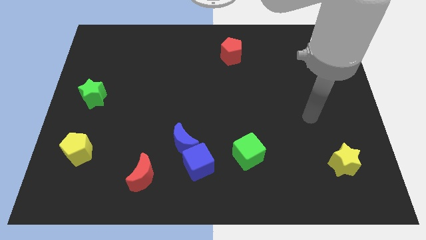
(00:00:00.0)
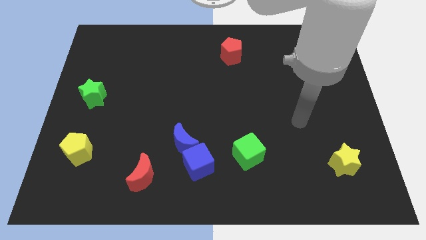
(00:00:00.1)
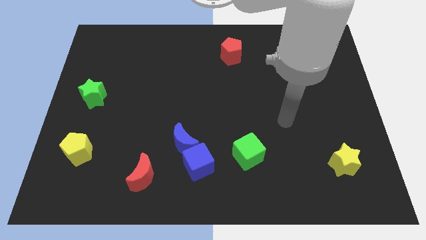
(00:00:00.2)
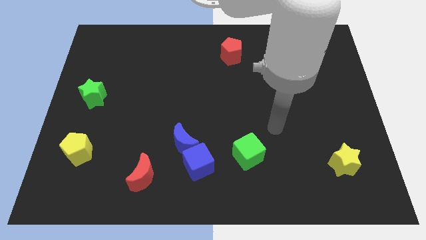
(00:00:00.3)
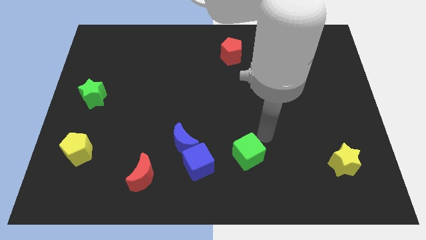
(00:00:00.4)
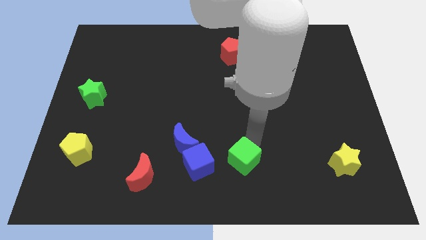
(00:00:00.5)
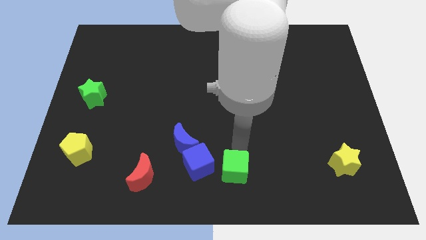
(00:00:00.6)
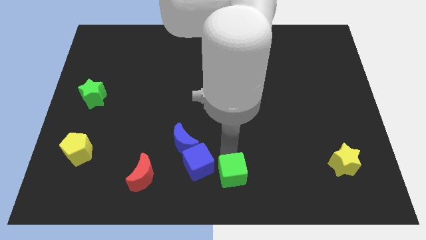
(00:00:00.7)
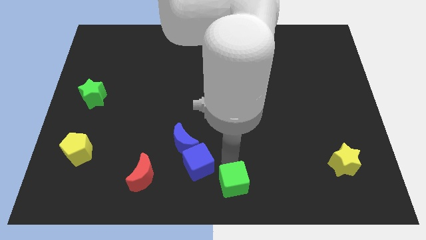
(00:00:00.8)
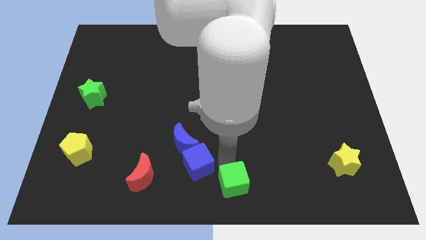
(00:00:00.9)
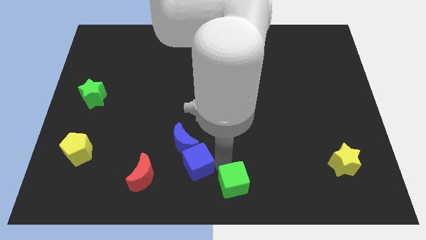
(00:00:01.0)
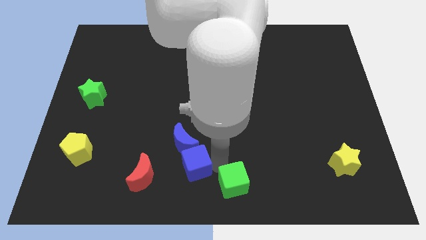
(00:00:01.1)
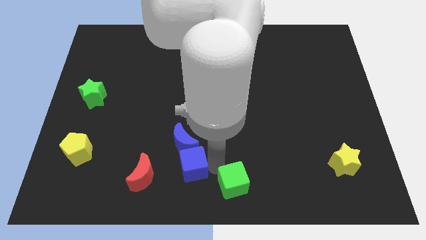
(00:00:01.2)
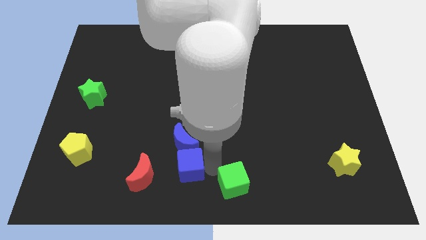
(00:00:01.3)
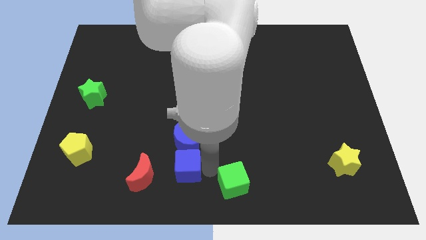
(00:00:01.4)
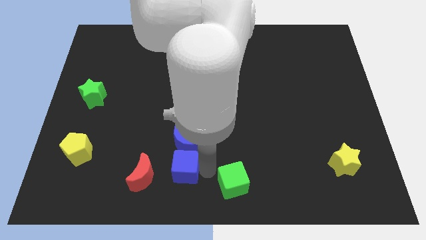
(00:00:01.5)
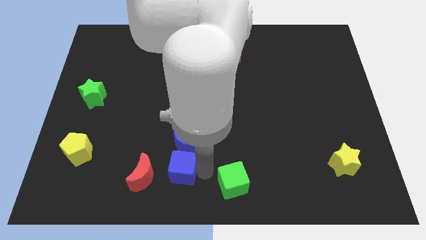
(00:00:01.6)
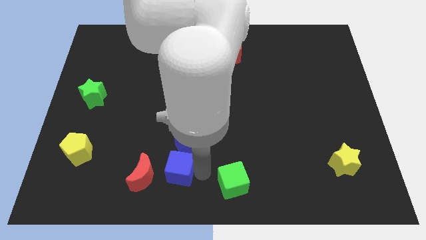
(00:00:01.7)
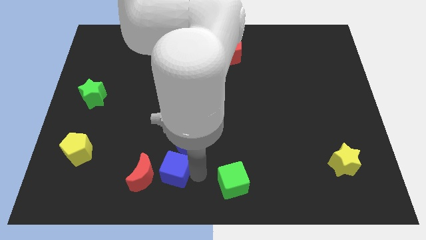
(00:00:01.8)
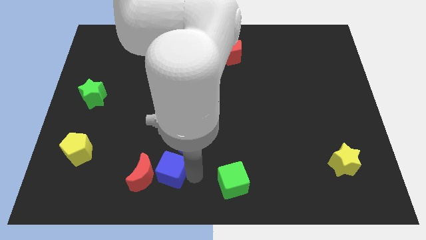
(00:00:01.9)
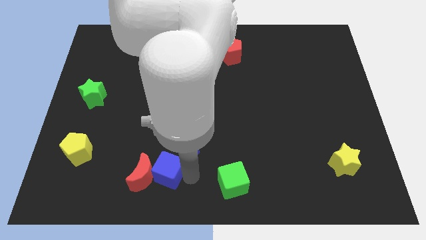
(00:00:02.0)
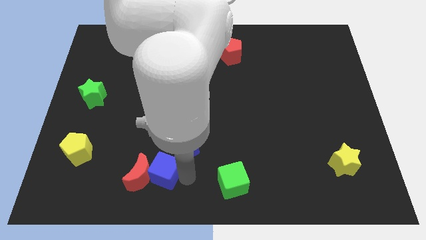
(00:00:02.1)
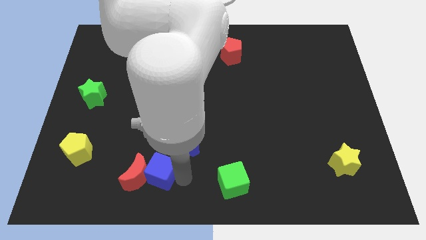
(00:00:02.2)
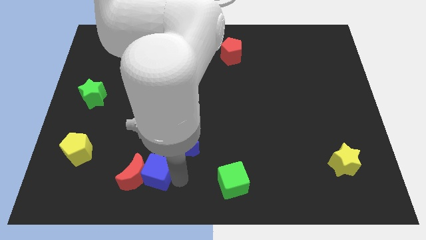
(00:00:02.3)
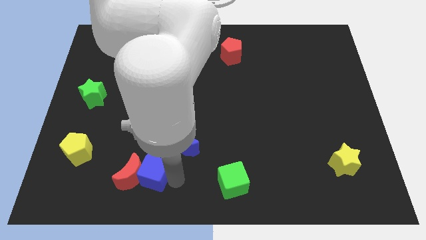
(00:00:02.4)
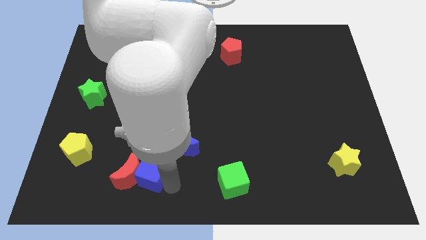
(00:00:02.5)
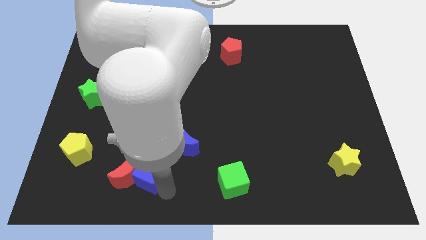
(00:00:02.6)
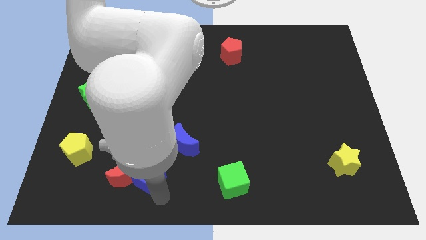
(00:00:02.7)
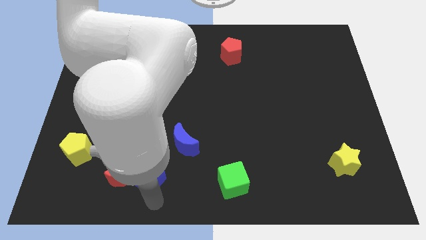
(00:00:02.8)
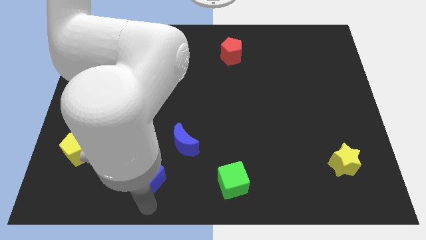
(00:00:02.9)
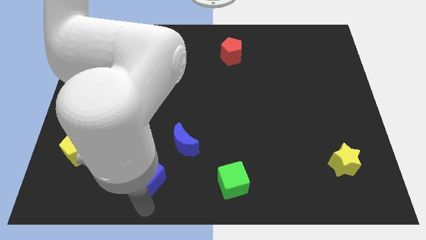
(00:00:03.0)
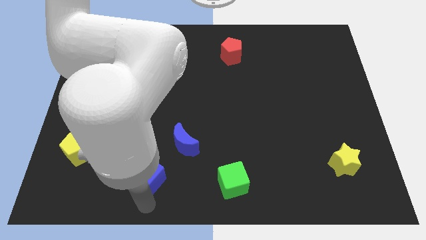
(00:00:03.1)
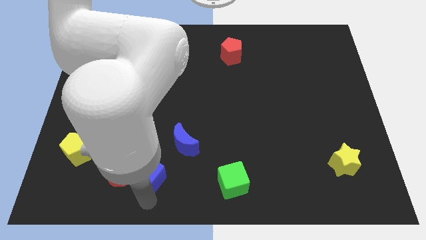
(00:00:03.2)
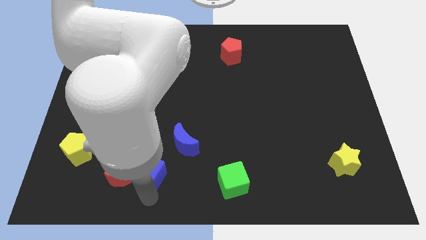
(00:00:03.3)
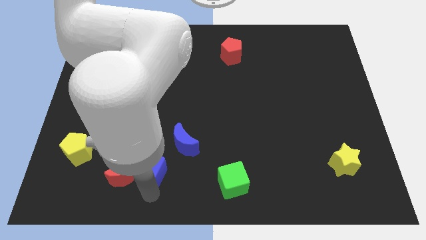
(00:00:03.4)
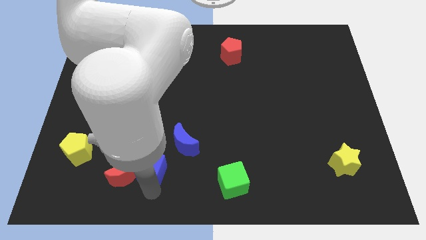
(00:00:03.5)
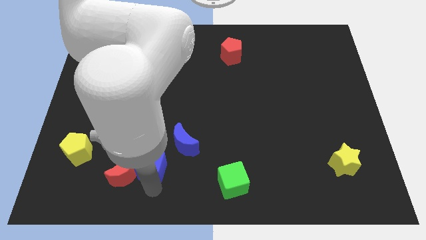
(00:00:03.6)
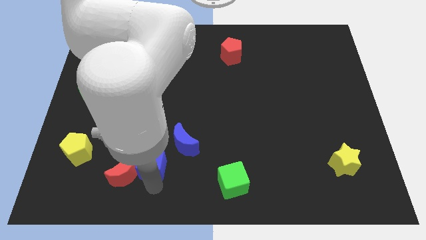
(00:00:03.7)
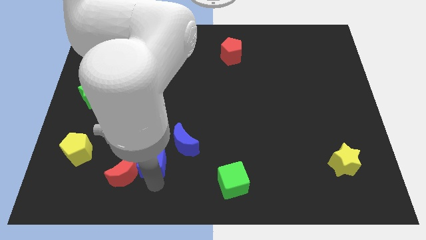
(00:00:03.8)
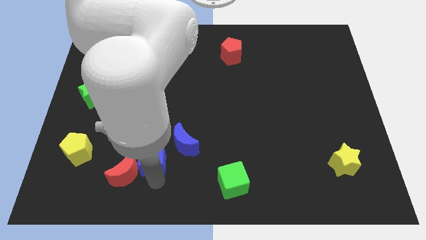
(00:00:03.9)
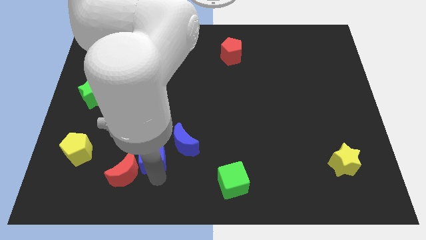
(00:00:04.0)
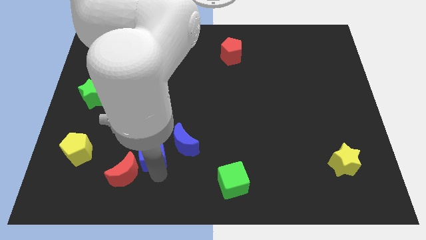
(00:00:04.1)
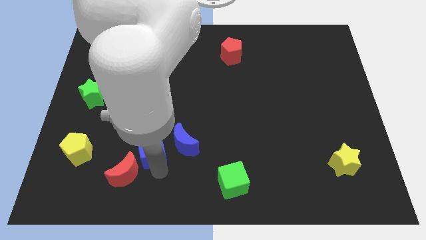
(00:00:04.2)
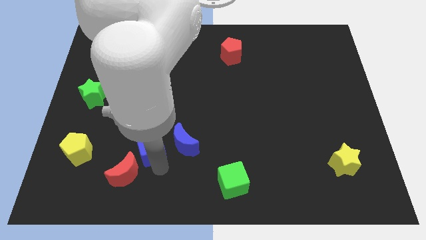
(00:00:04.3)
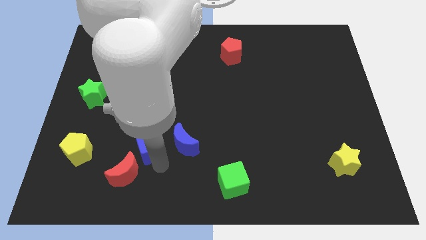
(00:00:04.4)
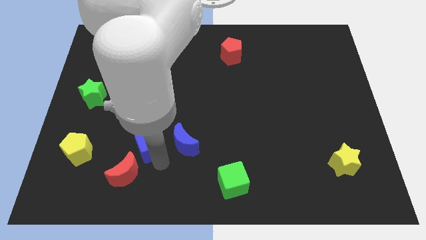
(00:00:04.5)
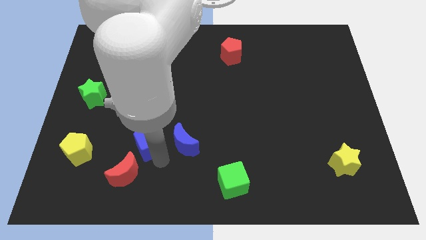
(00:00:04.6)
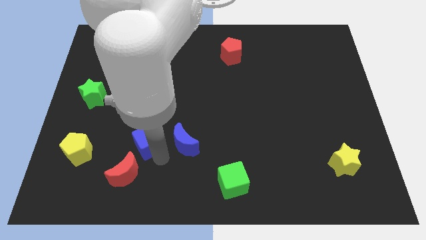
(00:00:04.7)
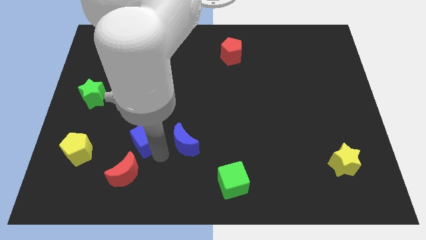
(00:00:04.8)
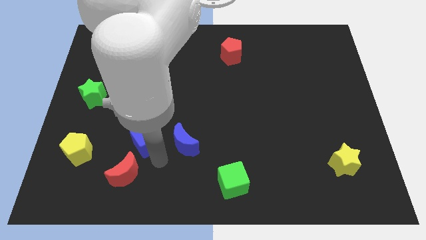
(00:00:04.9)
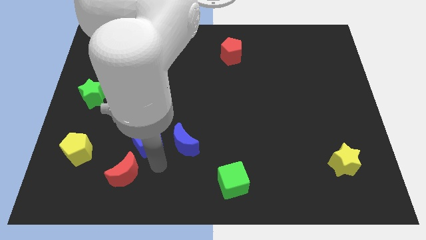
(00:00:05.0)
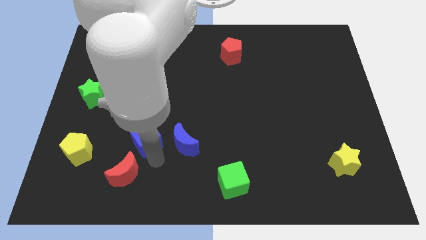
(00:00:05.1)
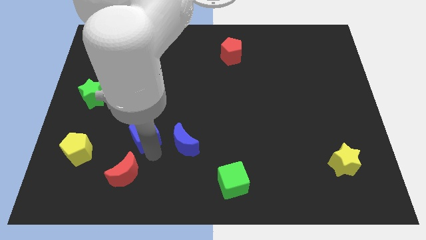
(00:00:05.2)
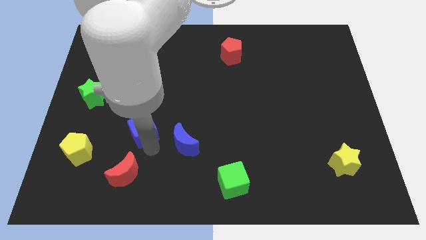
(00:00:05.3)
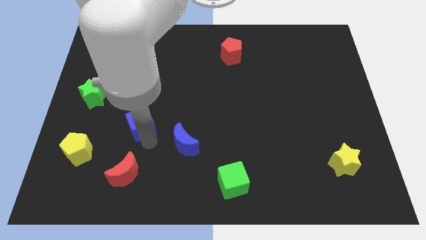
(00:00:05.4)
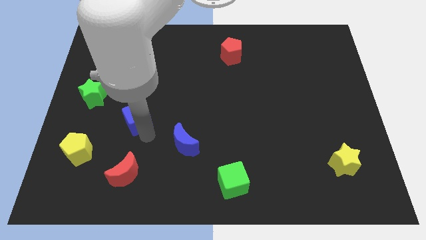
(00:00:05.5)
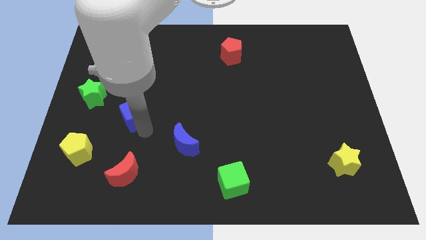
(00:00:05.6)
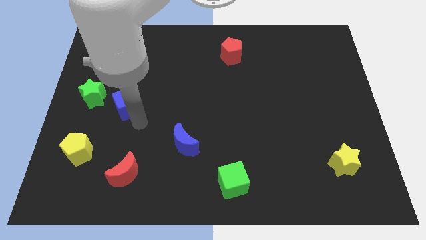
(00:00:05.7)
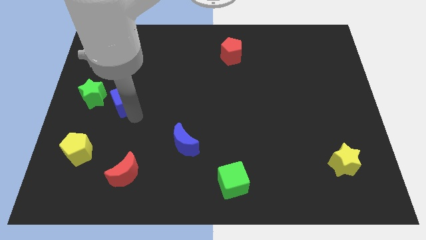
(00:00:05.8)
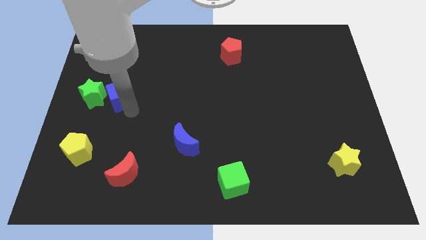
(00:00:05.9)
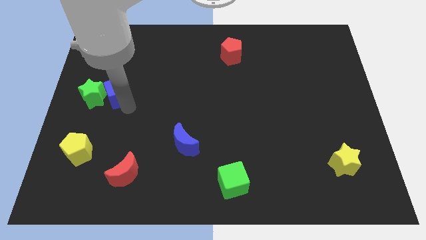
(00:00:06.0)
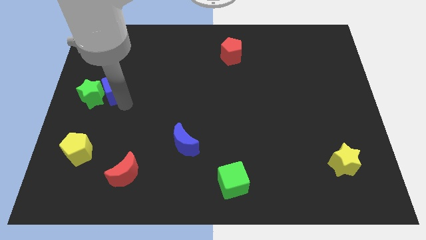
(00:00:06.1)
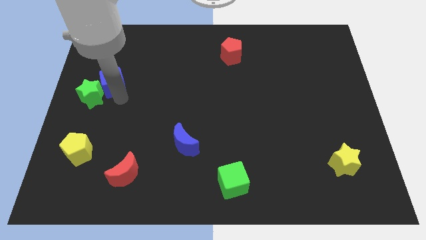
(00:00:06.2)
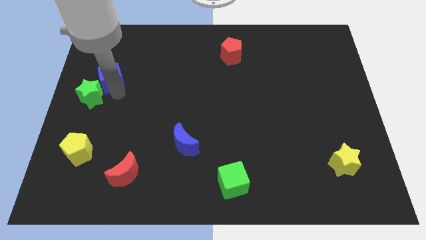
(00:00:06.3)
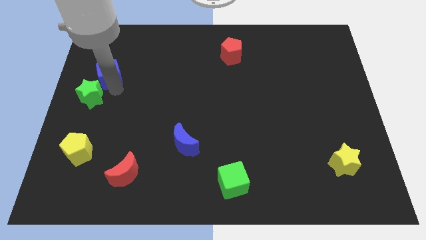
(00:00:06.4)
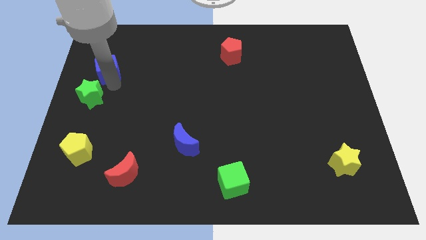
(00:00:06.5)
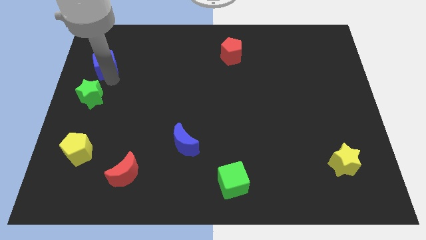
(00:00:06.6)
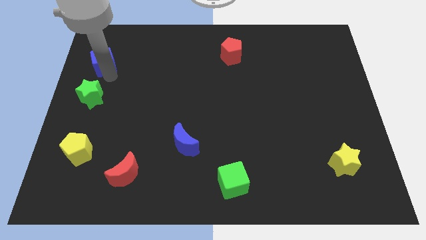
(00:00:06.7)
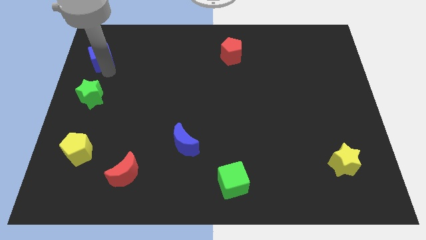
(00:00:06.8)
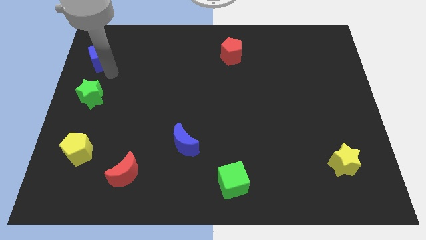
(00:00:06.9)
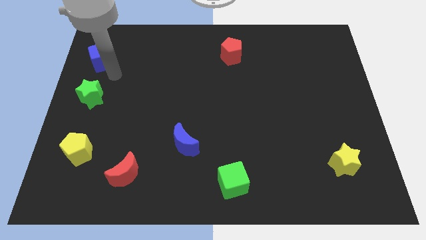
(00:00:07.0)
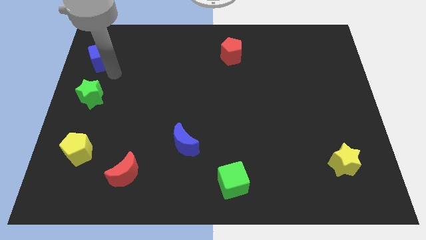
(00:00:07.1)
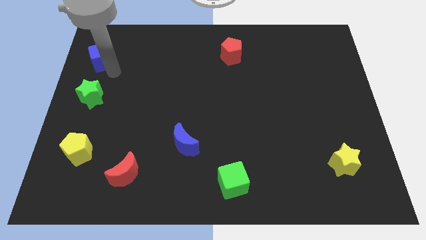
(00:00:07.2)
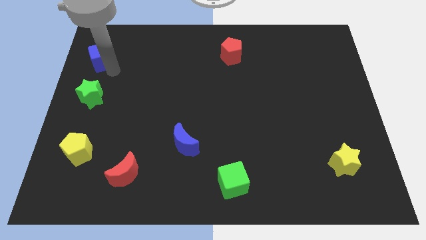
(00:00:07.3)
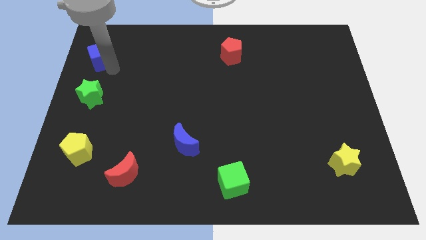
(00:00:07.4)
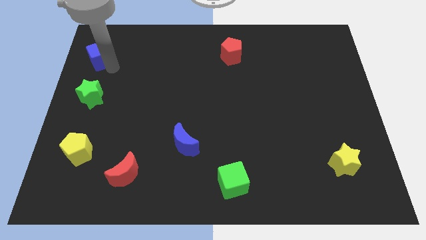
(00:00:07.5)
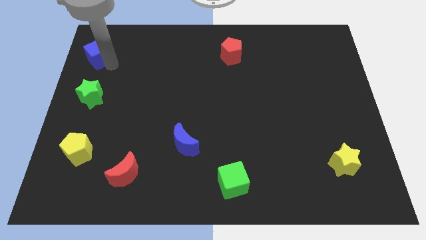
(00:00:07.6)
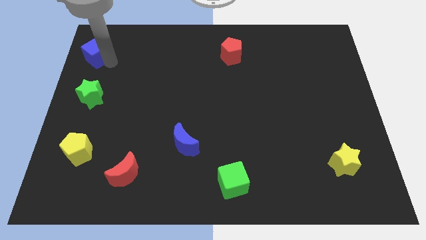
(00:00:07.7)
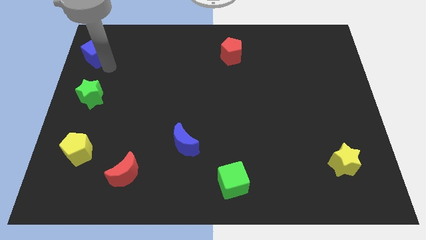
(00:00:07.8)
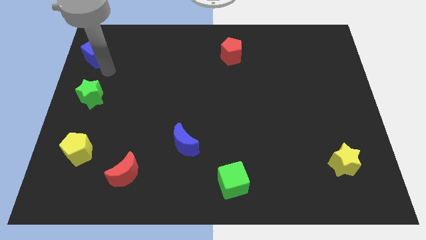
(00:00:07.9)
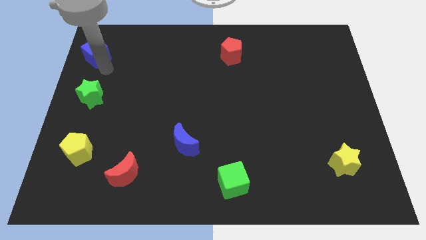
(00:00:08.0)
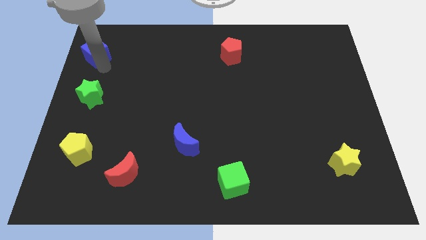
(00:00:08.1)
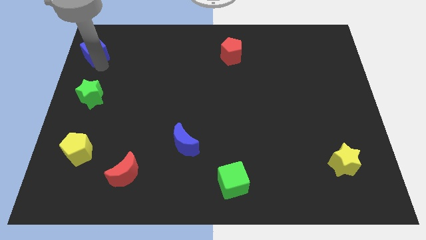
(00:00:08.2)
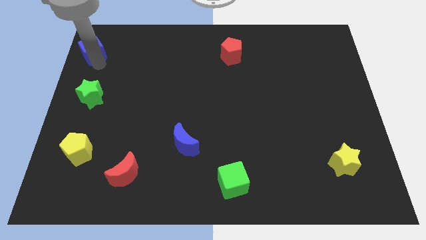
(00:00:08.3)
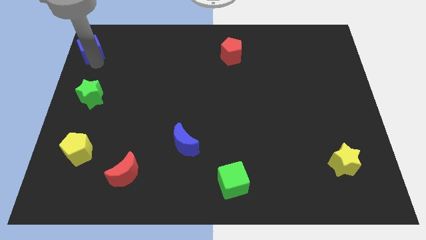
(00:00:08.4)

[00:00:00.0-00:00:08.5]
move the blue cube to the top left corner
